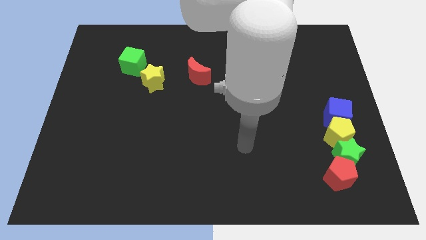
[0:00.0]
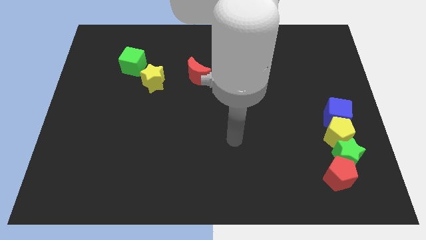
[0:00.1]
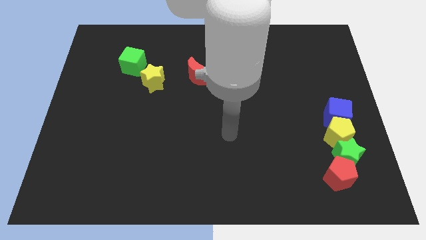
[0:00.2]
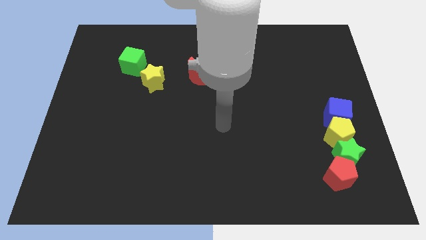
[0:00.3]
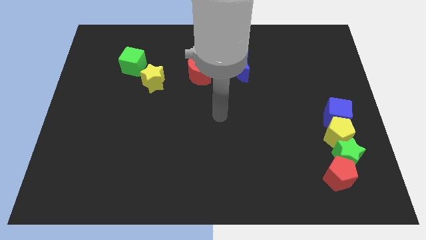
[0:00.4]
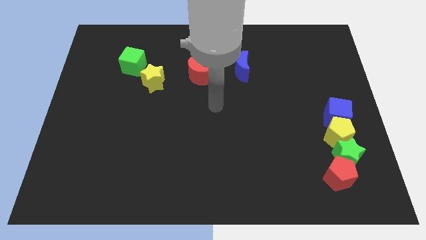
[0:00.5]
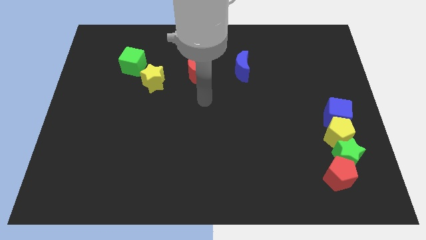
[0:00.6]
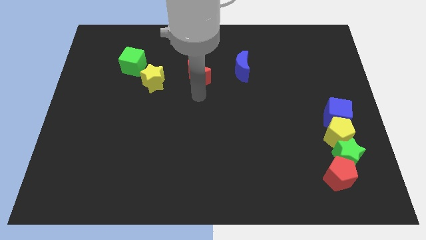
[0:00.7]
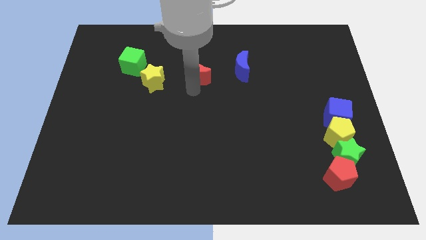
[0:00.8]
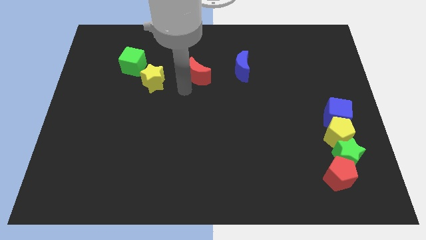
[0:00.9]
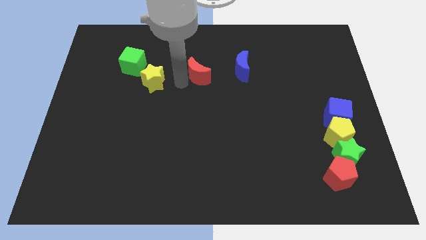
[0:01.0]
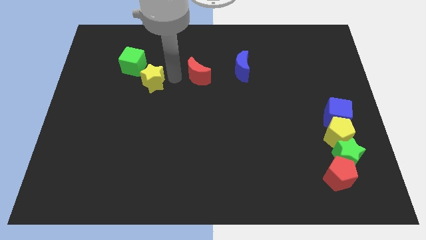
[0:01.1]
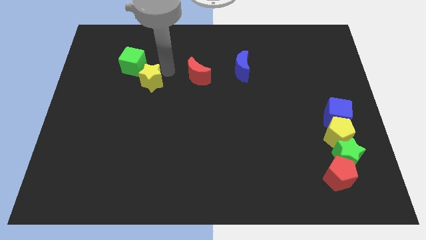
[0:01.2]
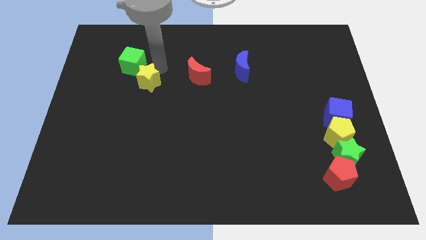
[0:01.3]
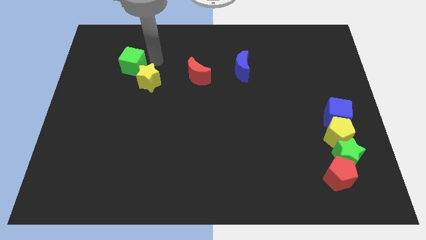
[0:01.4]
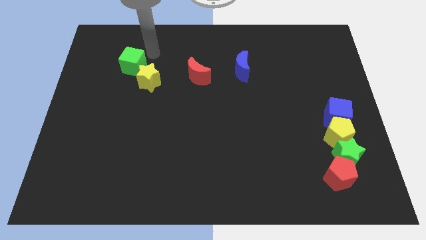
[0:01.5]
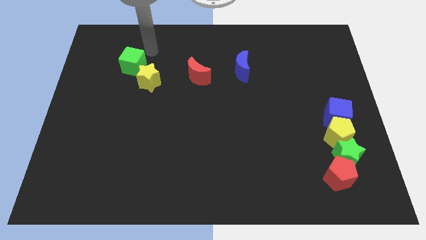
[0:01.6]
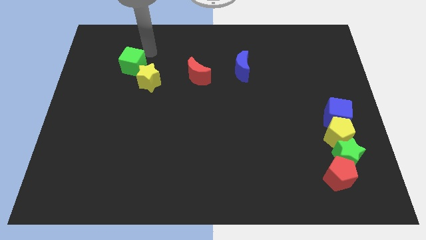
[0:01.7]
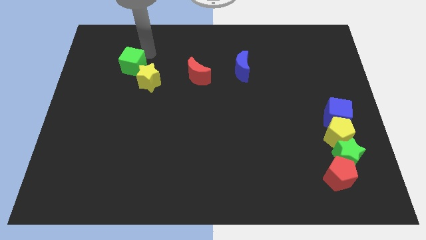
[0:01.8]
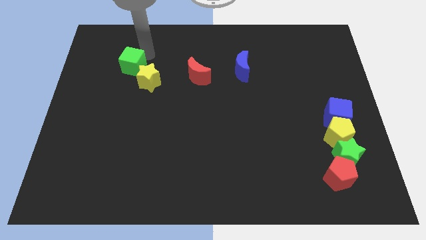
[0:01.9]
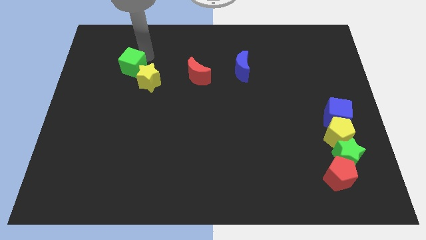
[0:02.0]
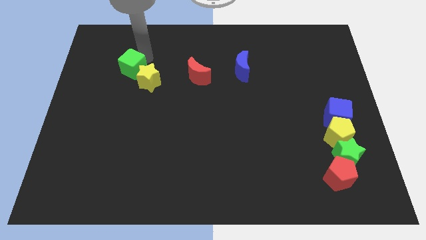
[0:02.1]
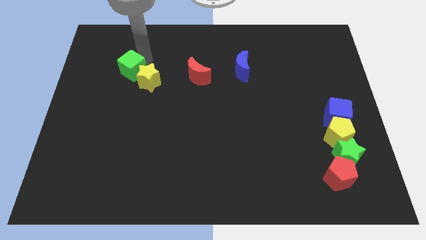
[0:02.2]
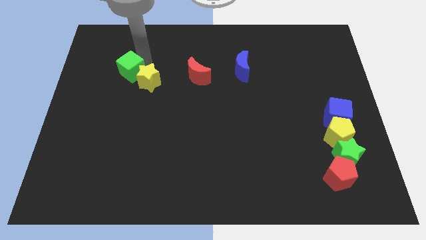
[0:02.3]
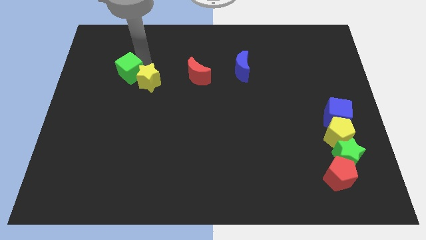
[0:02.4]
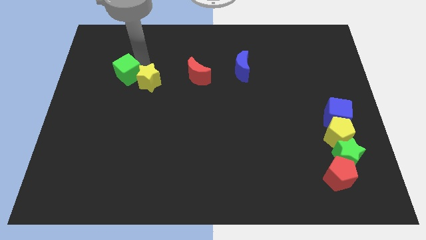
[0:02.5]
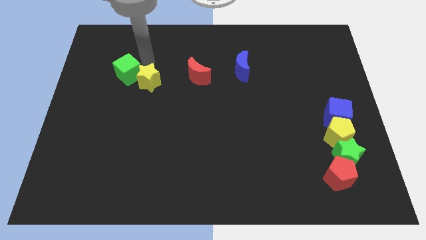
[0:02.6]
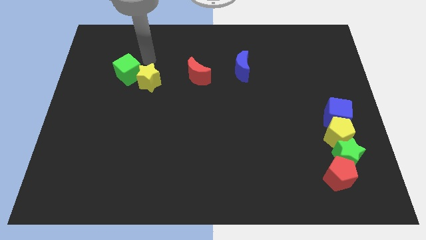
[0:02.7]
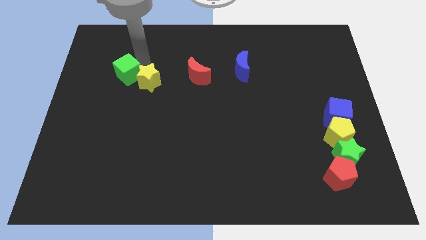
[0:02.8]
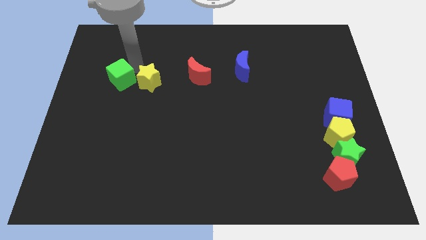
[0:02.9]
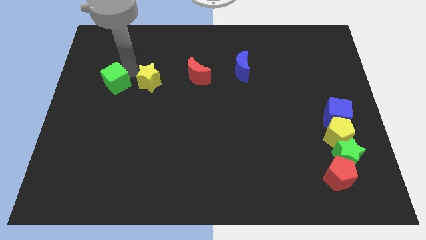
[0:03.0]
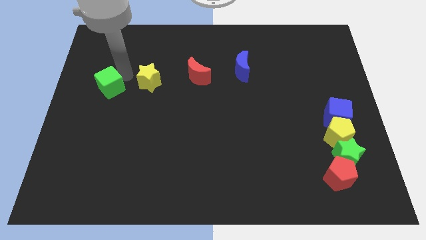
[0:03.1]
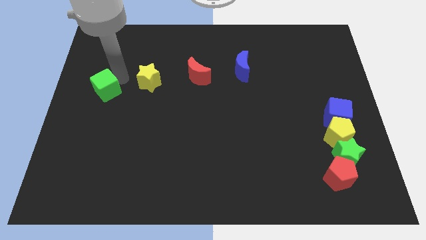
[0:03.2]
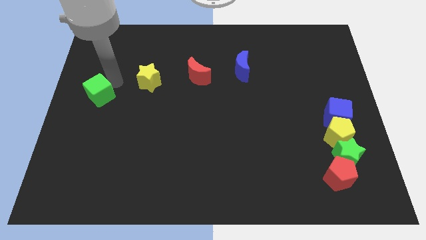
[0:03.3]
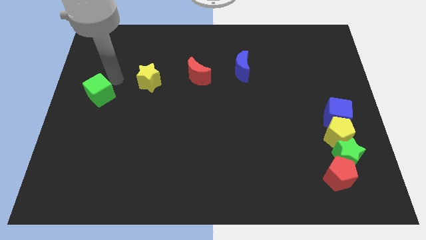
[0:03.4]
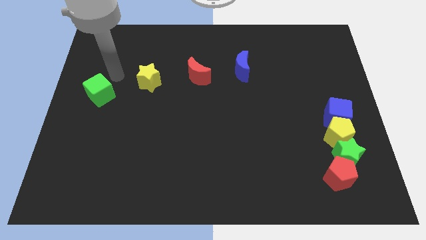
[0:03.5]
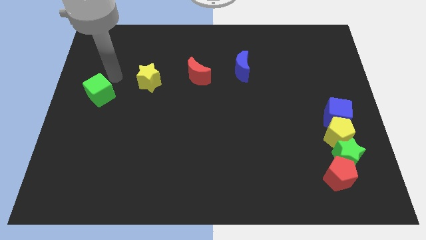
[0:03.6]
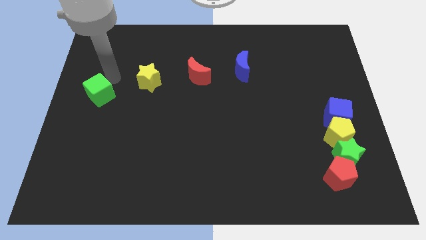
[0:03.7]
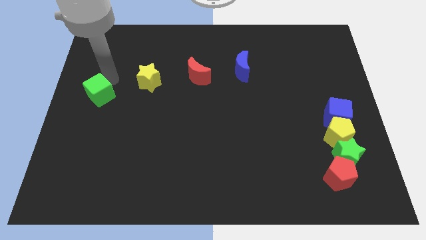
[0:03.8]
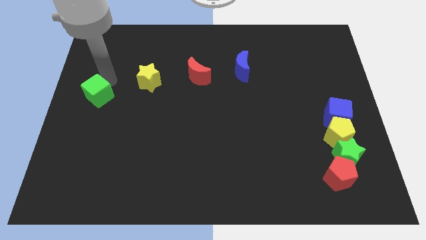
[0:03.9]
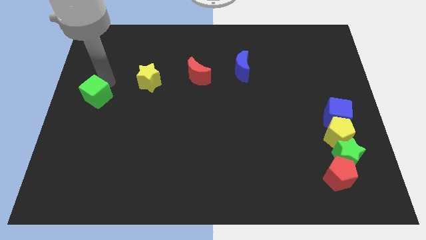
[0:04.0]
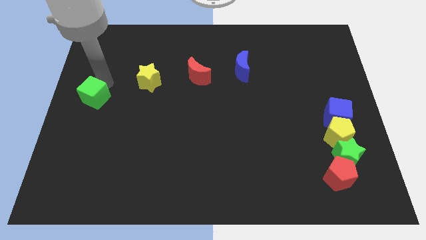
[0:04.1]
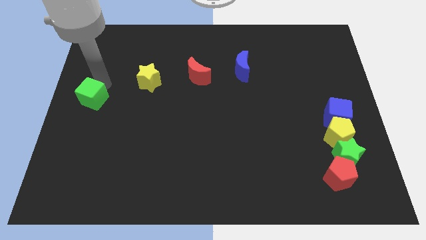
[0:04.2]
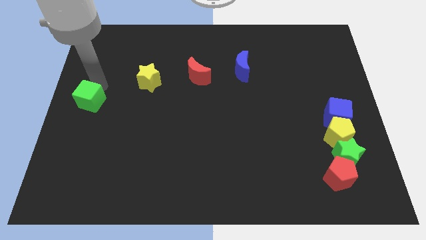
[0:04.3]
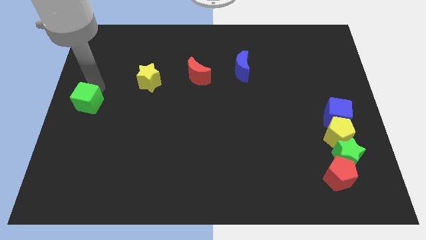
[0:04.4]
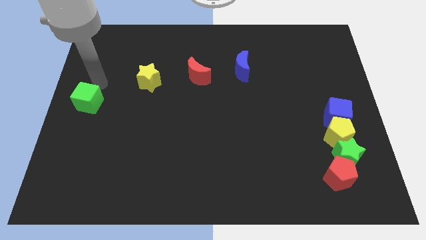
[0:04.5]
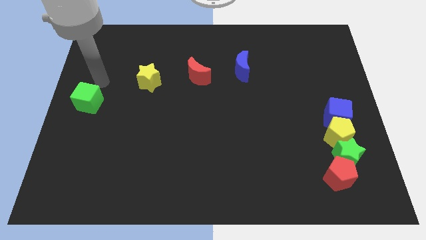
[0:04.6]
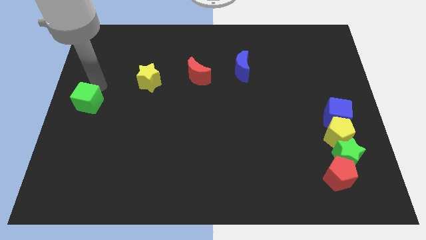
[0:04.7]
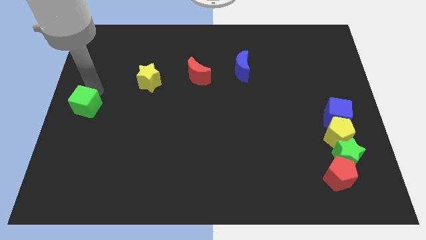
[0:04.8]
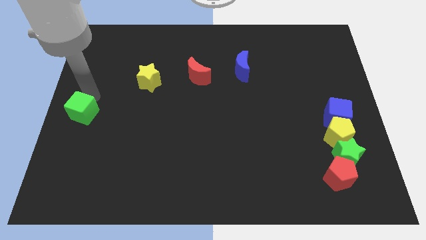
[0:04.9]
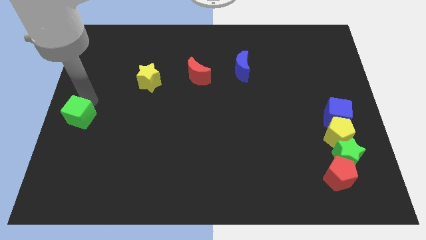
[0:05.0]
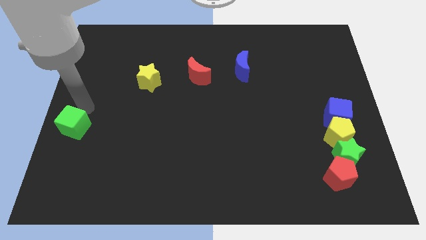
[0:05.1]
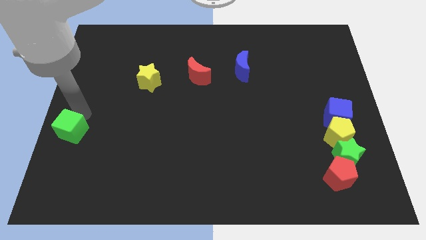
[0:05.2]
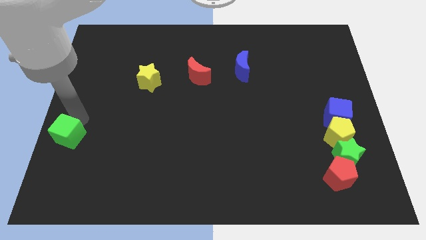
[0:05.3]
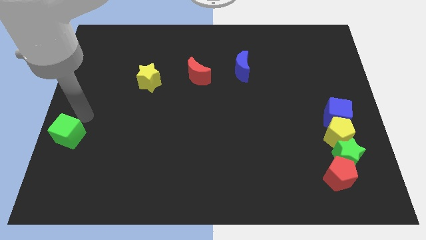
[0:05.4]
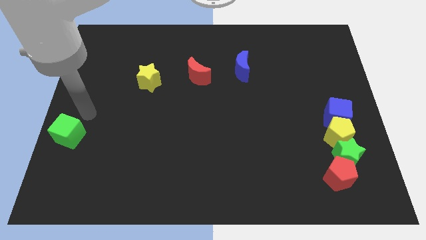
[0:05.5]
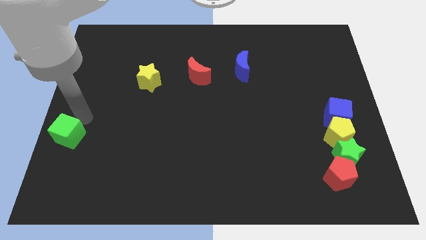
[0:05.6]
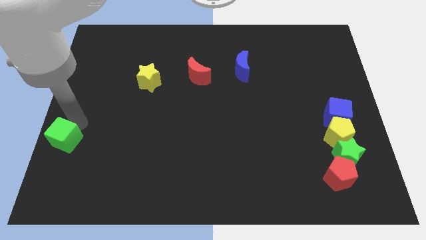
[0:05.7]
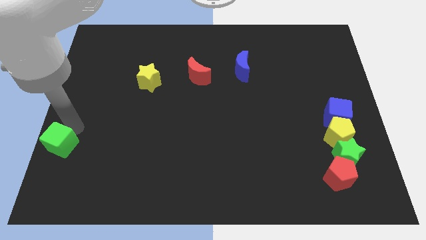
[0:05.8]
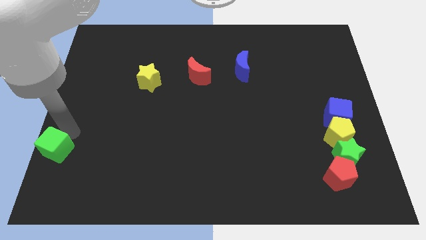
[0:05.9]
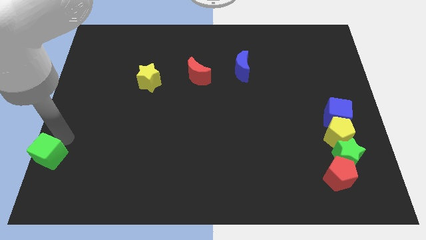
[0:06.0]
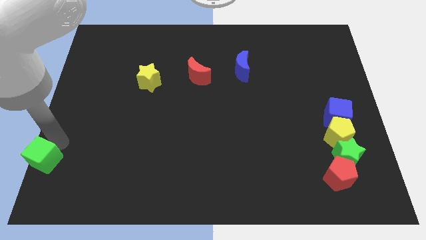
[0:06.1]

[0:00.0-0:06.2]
push the green cube to the bottom left of the board
